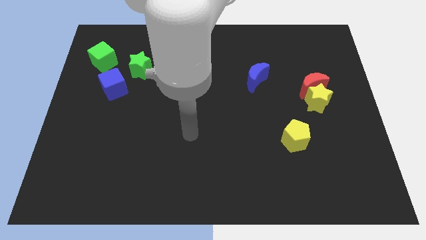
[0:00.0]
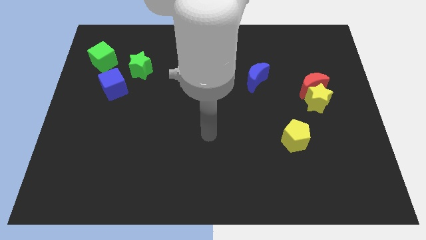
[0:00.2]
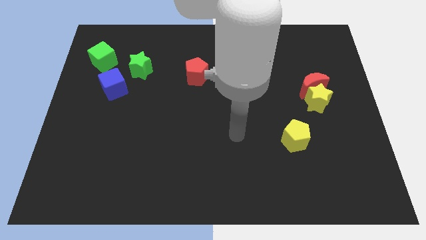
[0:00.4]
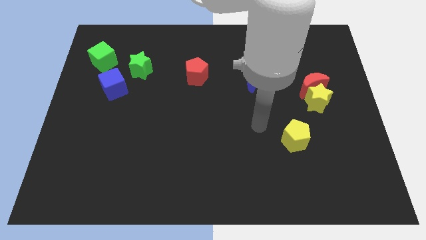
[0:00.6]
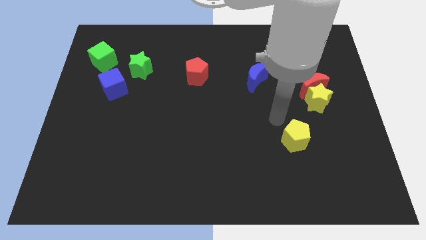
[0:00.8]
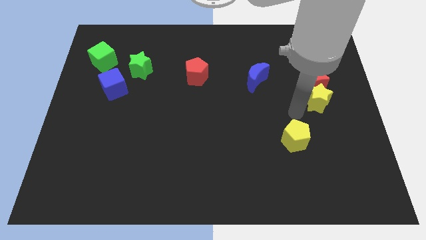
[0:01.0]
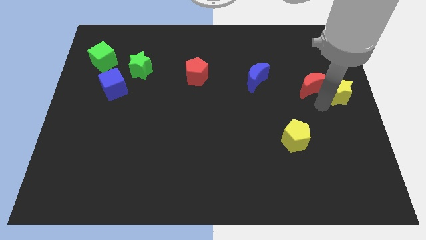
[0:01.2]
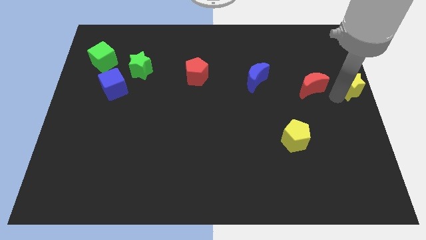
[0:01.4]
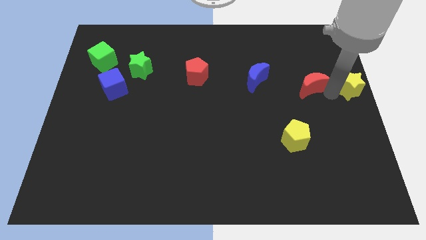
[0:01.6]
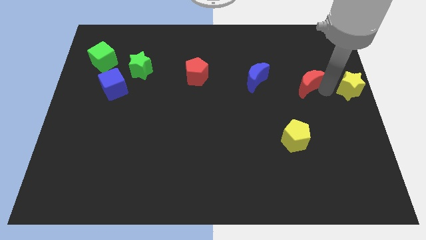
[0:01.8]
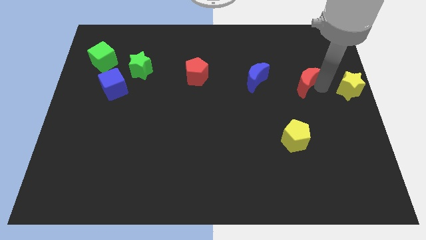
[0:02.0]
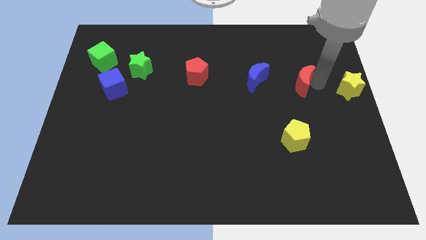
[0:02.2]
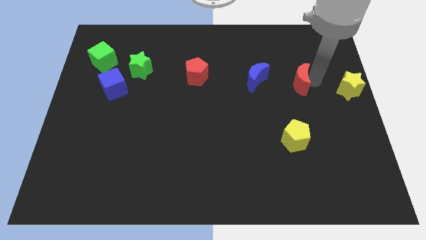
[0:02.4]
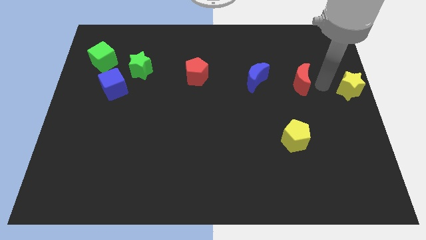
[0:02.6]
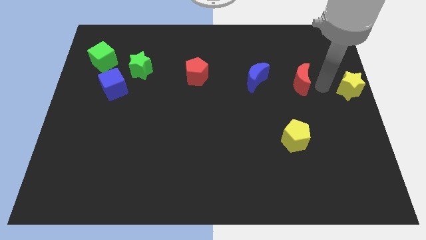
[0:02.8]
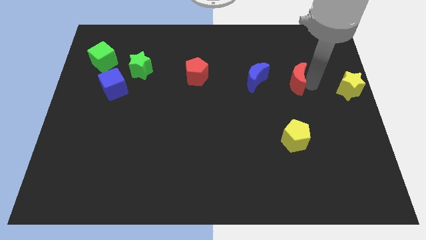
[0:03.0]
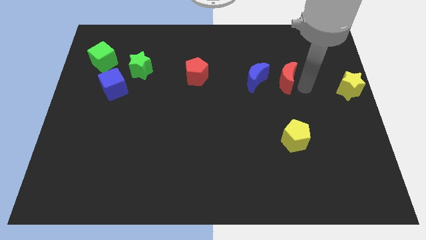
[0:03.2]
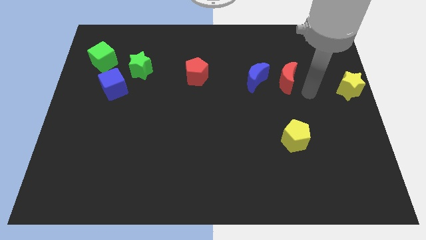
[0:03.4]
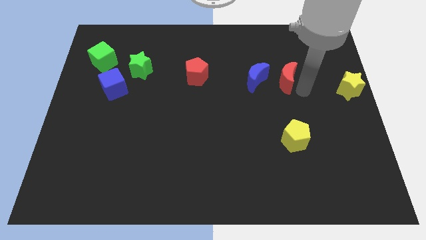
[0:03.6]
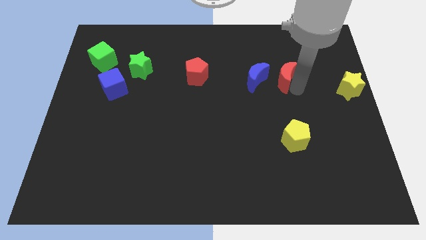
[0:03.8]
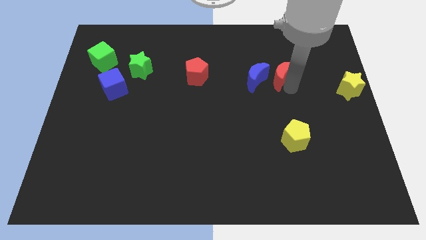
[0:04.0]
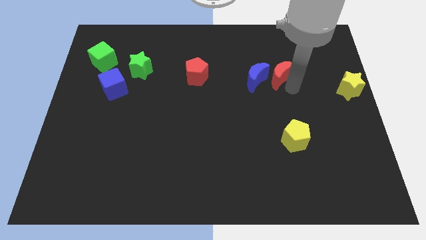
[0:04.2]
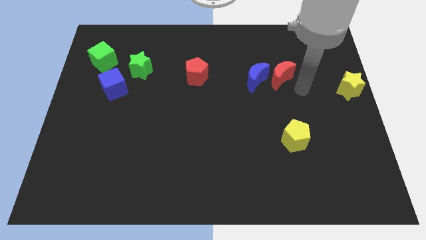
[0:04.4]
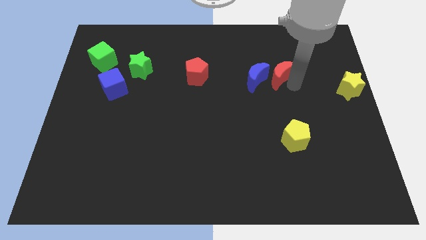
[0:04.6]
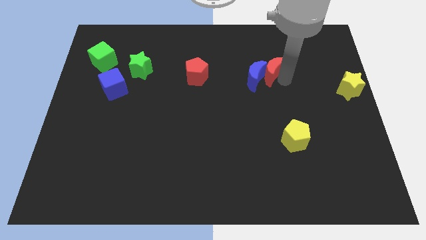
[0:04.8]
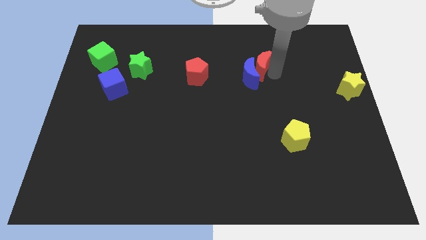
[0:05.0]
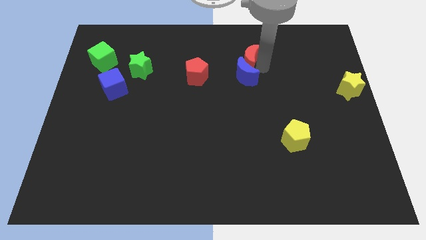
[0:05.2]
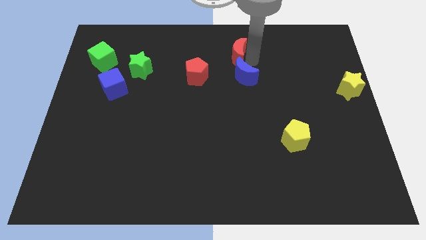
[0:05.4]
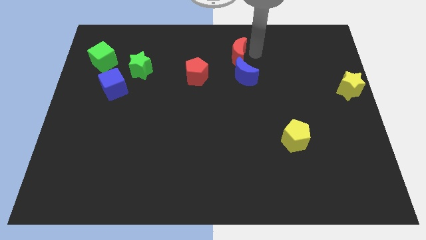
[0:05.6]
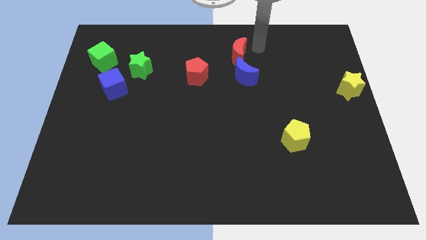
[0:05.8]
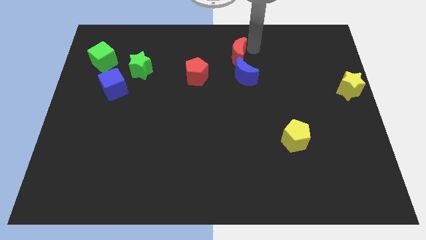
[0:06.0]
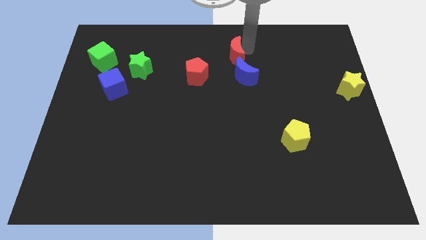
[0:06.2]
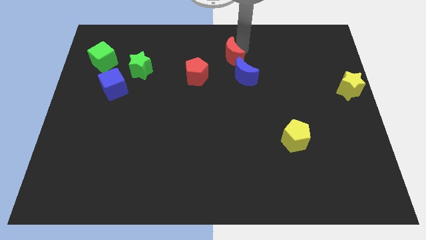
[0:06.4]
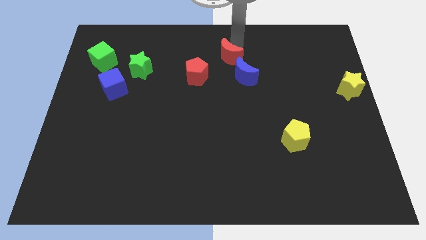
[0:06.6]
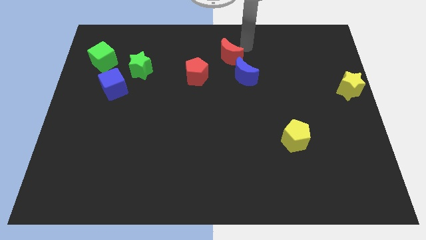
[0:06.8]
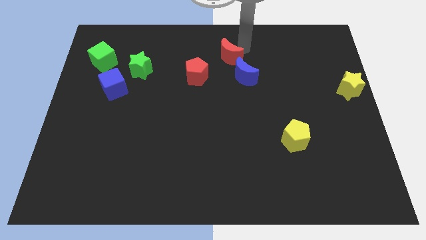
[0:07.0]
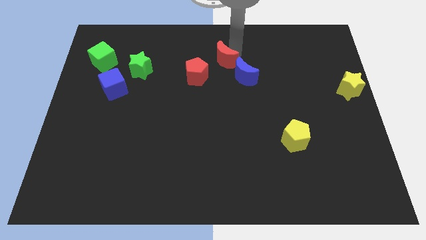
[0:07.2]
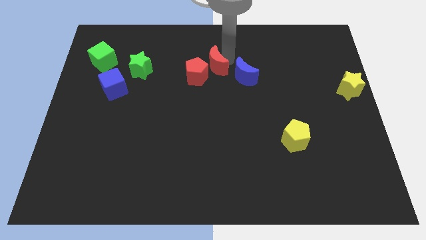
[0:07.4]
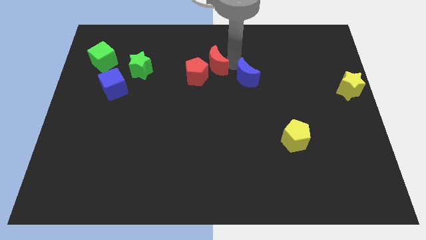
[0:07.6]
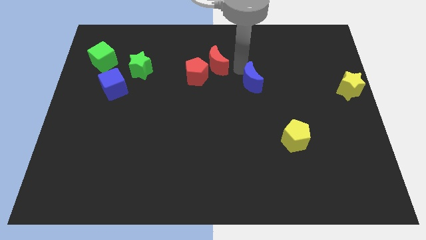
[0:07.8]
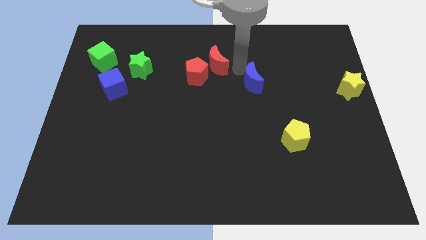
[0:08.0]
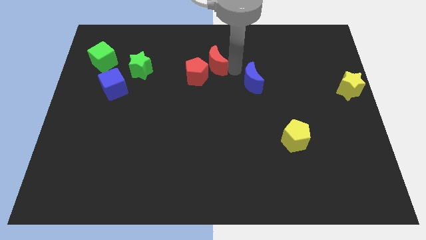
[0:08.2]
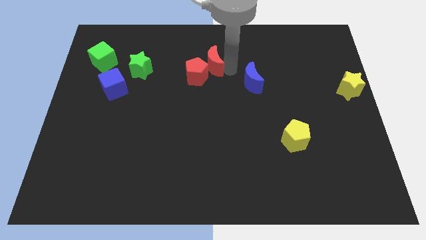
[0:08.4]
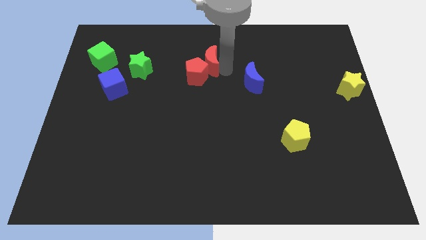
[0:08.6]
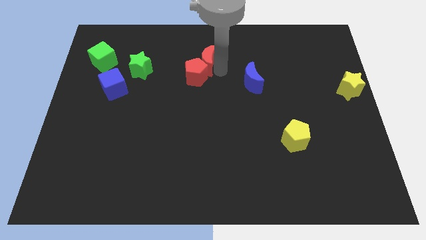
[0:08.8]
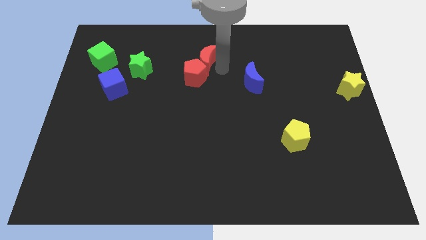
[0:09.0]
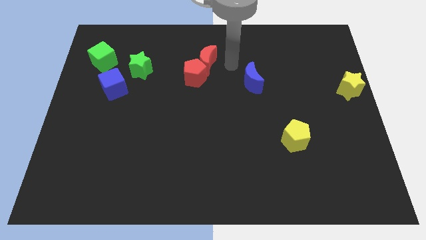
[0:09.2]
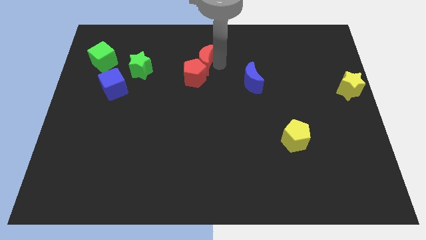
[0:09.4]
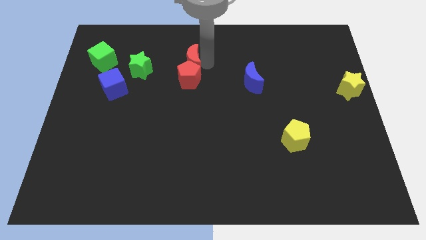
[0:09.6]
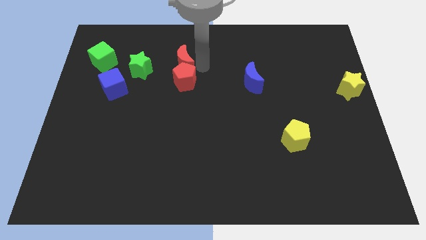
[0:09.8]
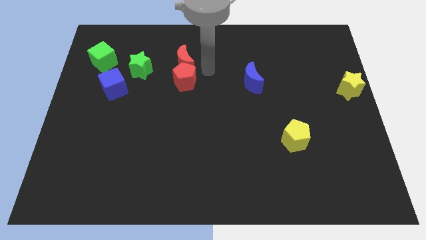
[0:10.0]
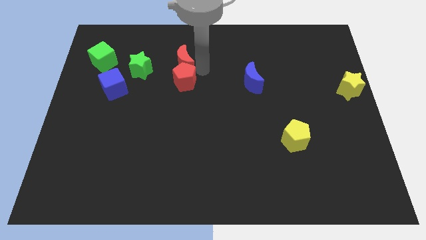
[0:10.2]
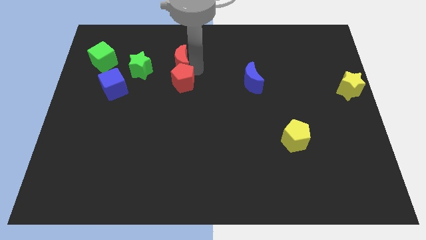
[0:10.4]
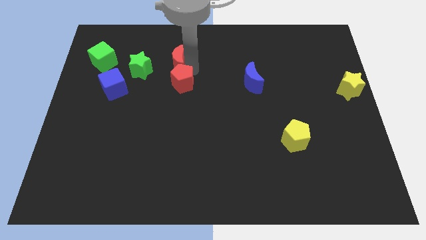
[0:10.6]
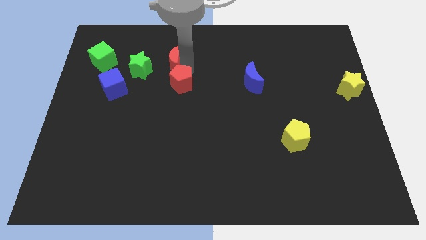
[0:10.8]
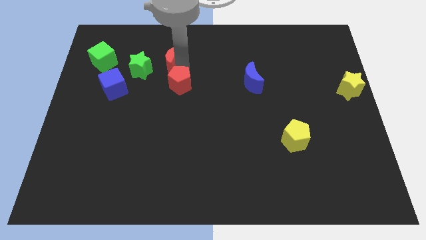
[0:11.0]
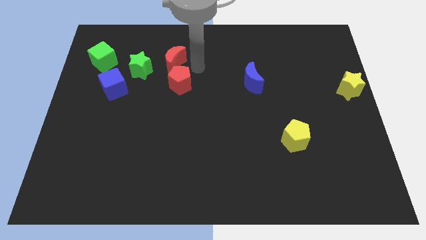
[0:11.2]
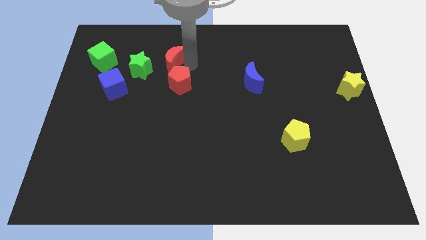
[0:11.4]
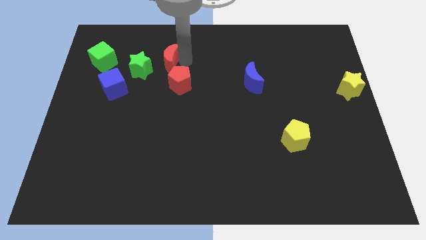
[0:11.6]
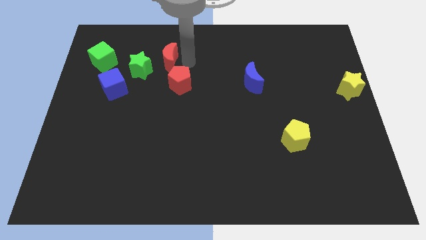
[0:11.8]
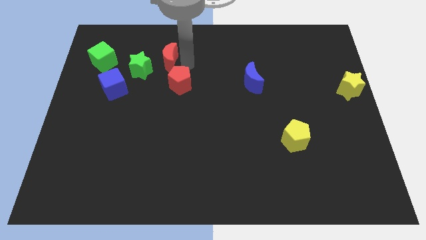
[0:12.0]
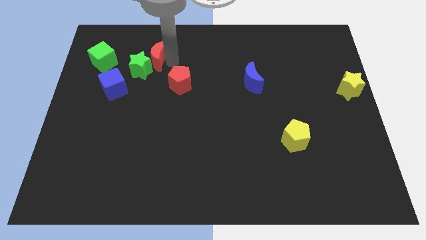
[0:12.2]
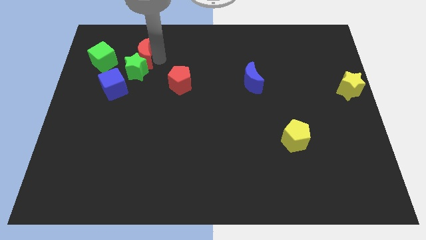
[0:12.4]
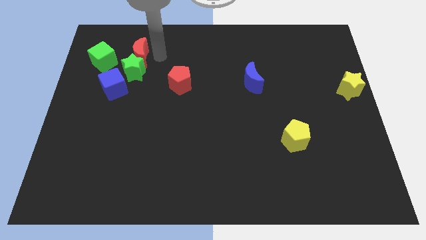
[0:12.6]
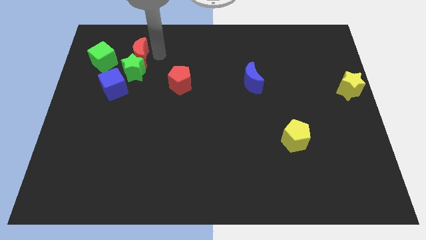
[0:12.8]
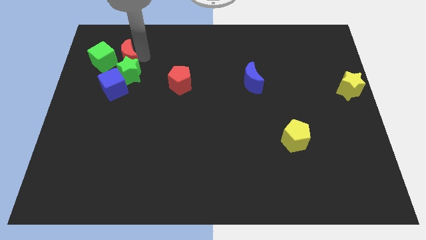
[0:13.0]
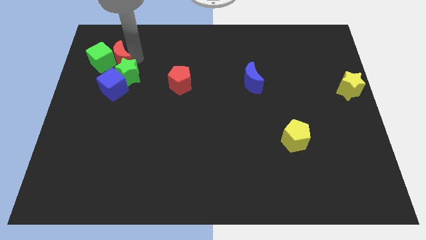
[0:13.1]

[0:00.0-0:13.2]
put the red moon next to the green cube

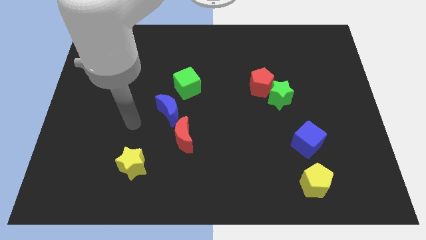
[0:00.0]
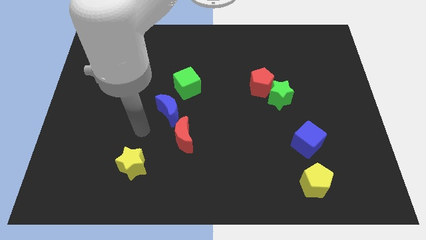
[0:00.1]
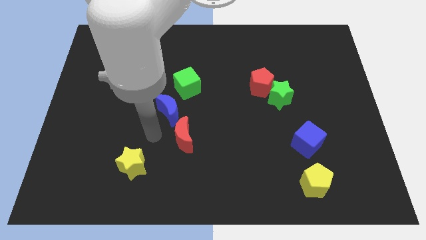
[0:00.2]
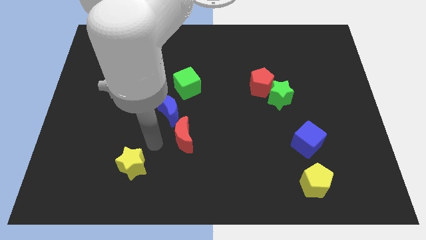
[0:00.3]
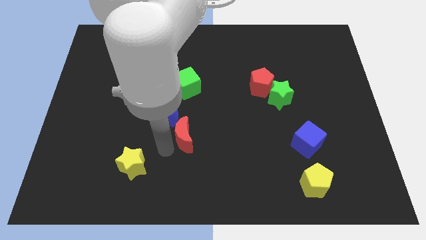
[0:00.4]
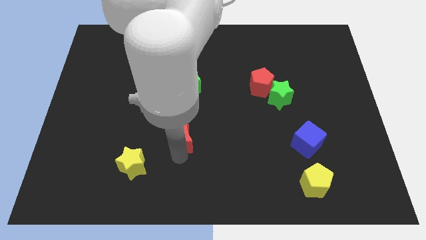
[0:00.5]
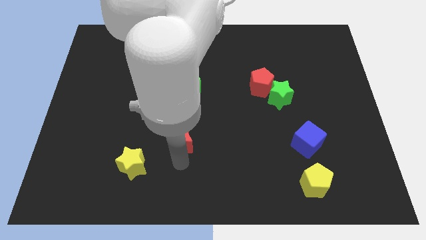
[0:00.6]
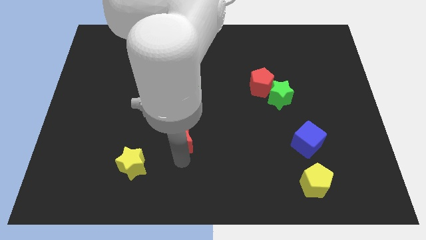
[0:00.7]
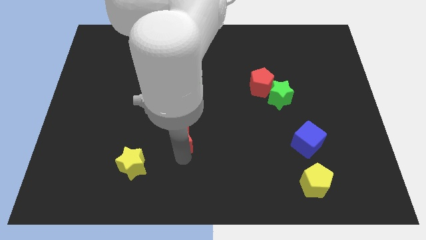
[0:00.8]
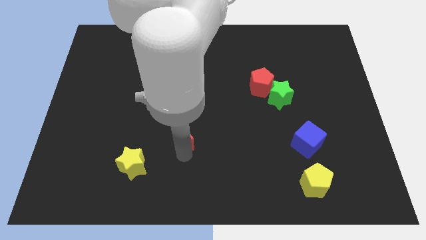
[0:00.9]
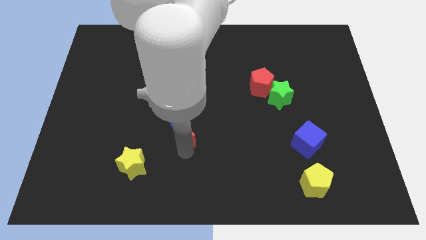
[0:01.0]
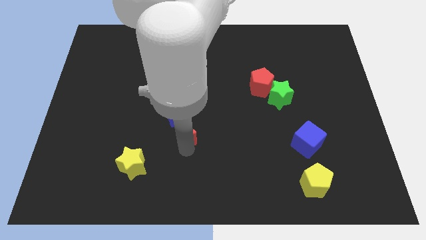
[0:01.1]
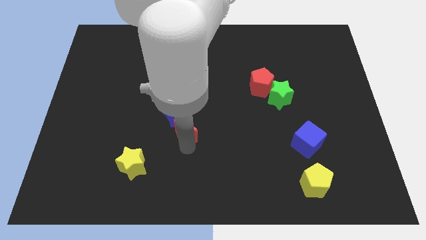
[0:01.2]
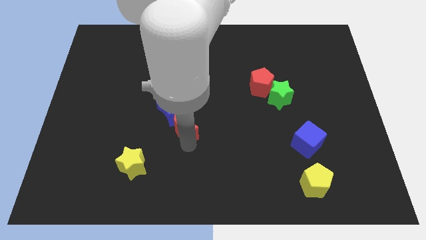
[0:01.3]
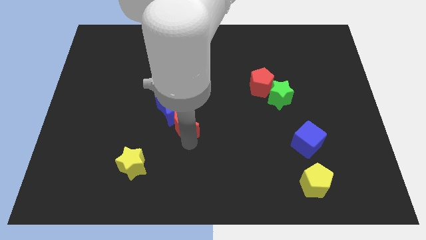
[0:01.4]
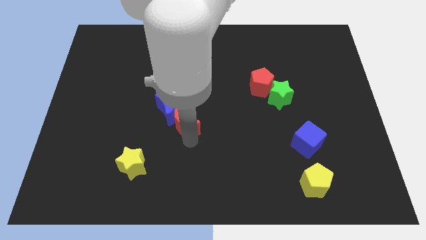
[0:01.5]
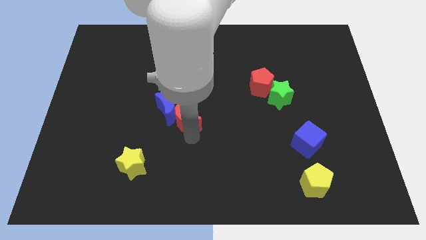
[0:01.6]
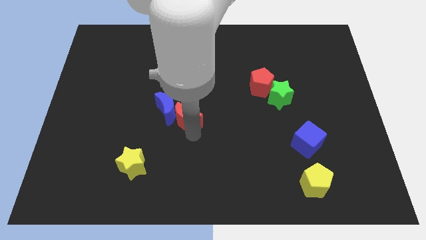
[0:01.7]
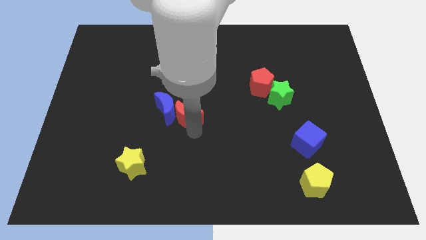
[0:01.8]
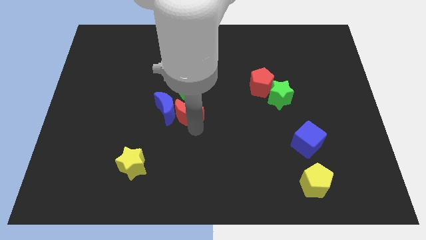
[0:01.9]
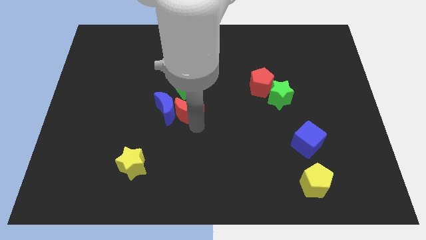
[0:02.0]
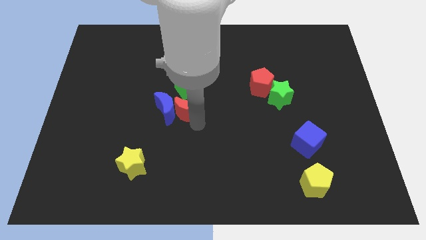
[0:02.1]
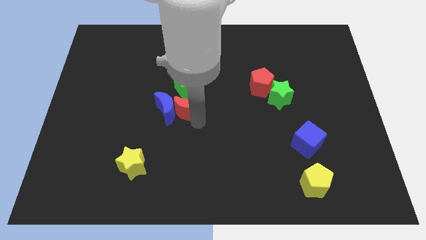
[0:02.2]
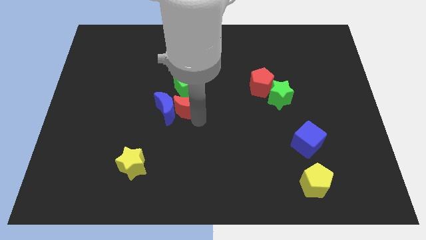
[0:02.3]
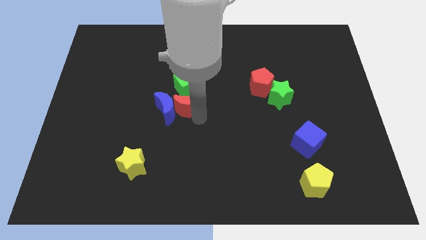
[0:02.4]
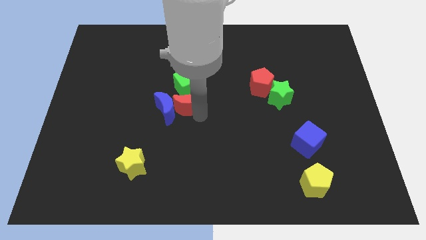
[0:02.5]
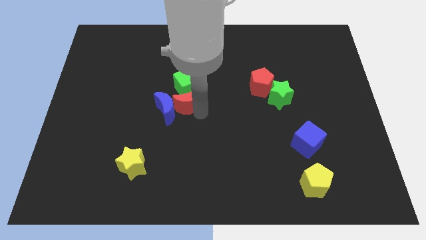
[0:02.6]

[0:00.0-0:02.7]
slide the red moon next to the green cube
